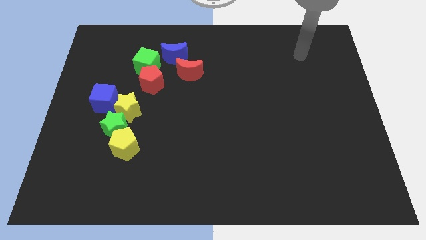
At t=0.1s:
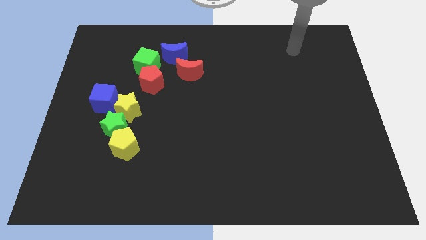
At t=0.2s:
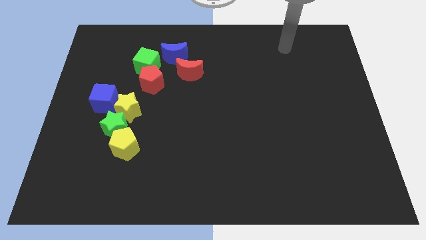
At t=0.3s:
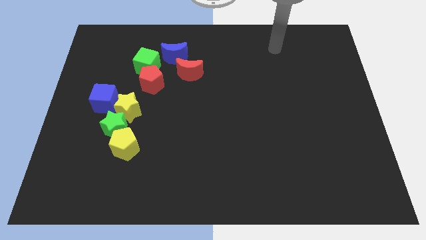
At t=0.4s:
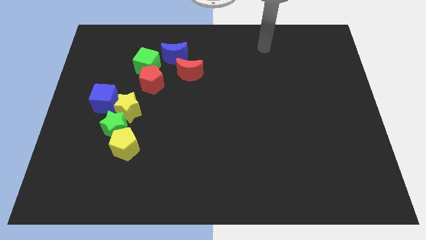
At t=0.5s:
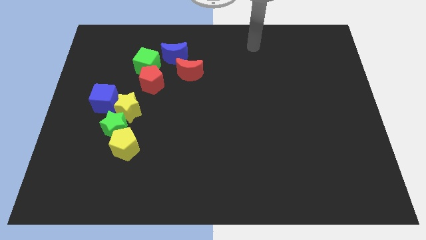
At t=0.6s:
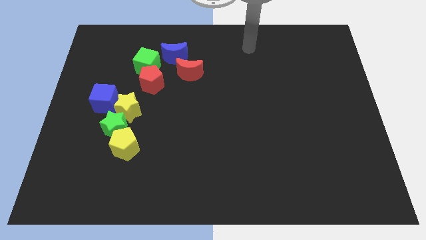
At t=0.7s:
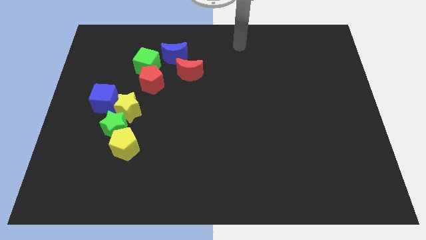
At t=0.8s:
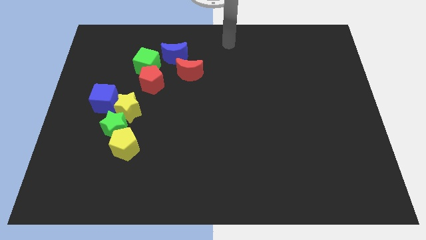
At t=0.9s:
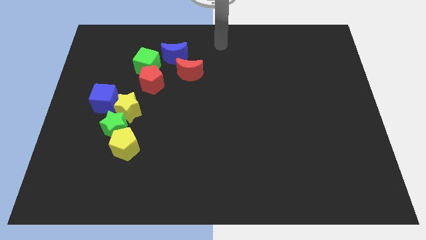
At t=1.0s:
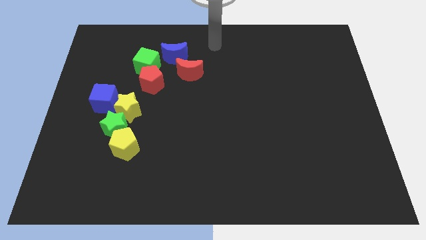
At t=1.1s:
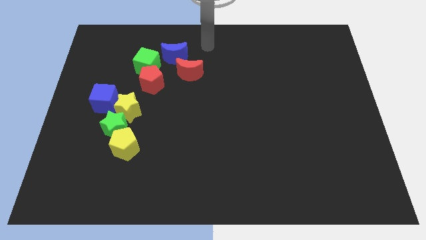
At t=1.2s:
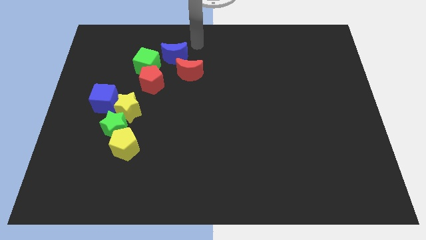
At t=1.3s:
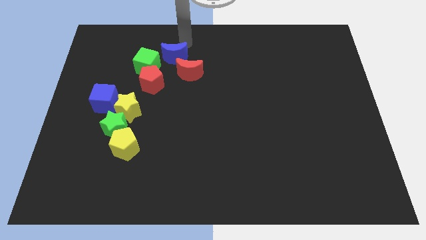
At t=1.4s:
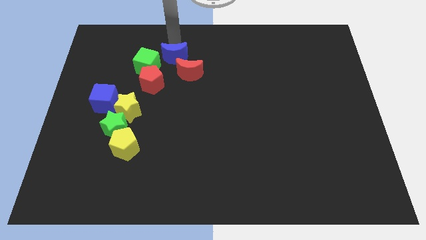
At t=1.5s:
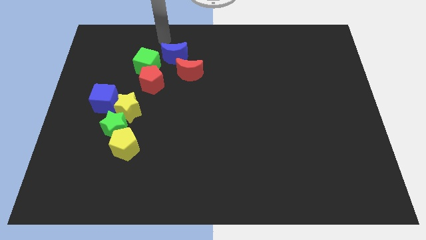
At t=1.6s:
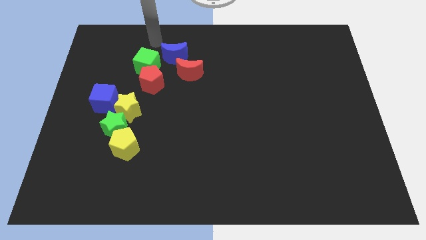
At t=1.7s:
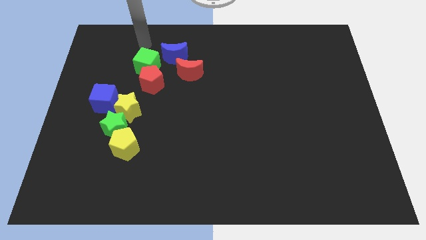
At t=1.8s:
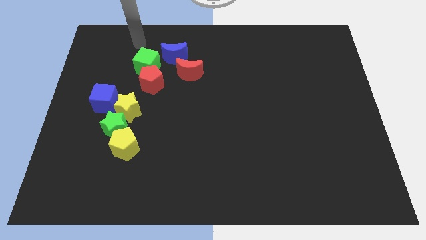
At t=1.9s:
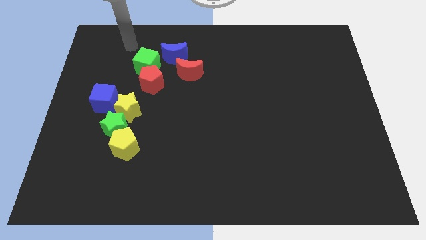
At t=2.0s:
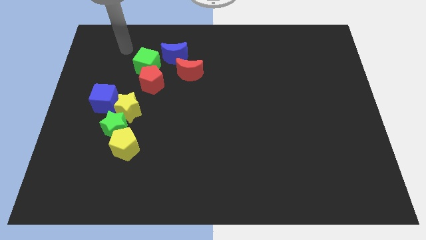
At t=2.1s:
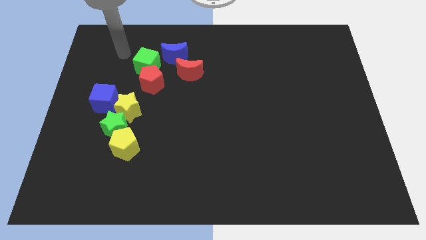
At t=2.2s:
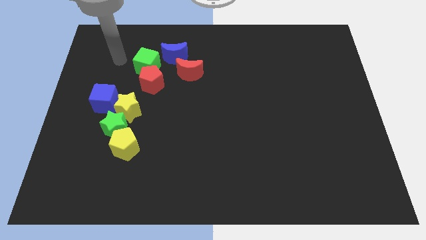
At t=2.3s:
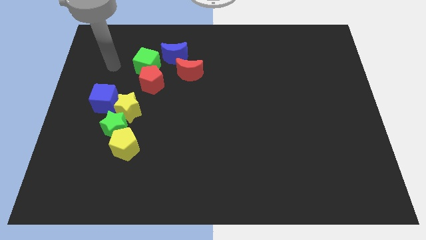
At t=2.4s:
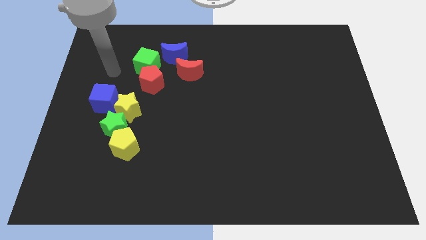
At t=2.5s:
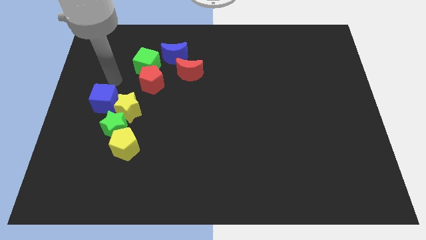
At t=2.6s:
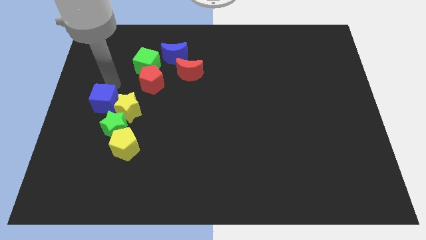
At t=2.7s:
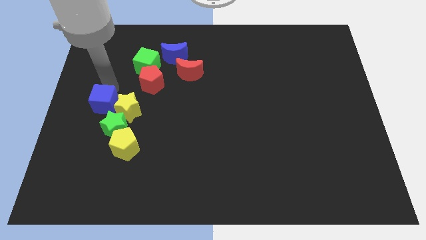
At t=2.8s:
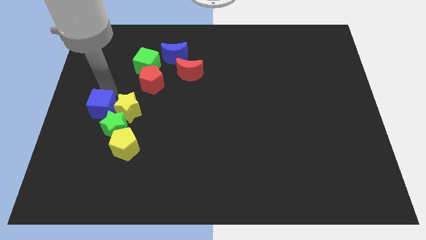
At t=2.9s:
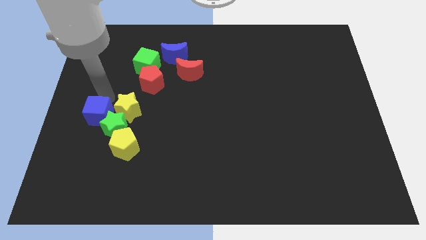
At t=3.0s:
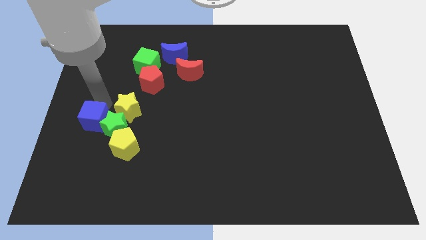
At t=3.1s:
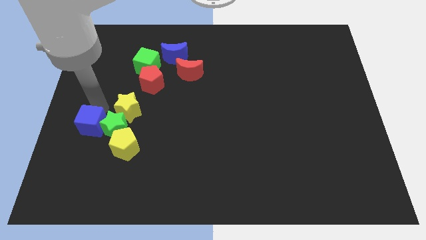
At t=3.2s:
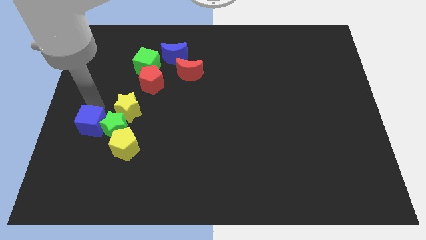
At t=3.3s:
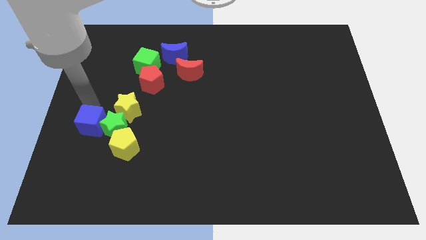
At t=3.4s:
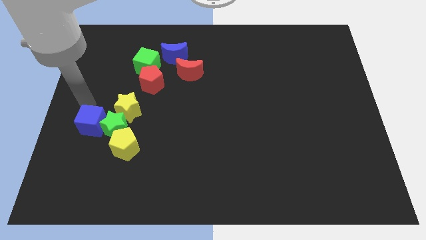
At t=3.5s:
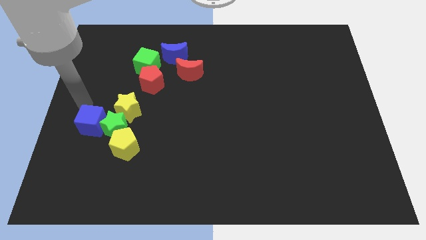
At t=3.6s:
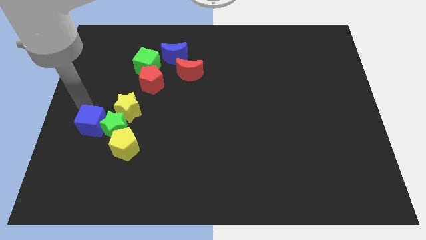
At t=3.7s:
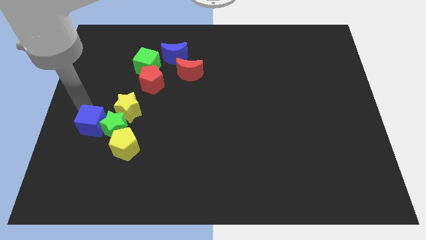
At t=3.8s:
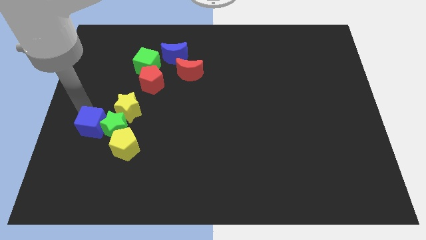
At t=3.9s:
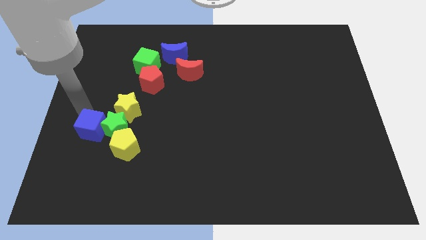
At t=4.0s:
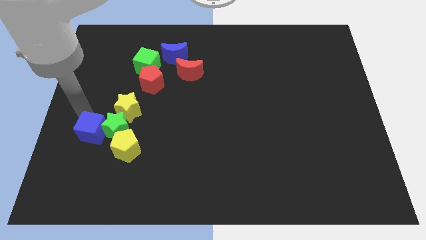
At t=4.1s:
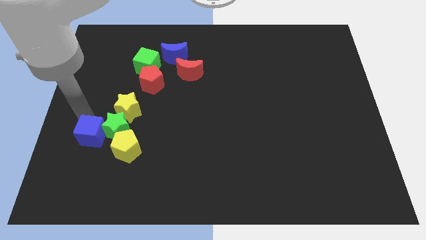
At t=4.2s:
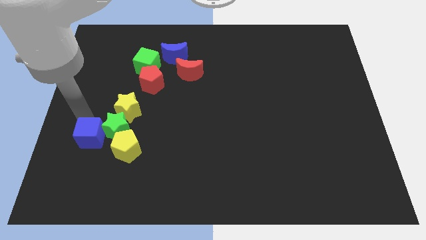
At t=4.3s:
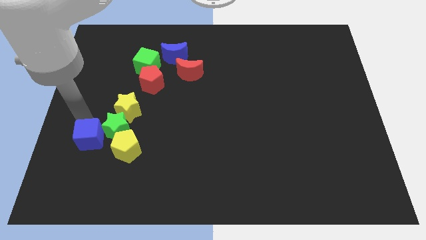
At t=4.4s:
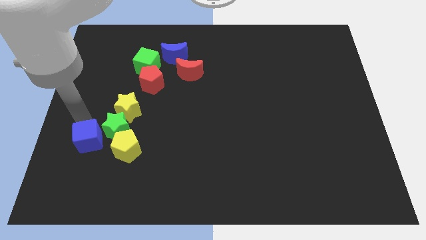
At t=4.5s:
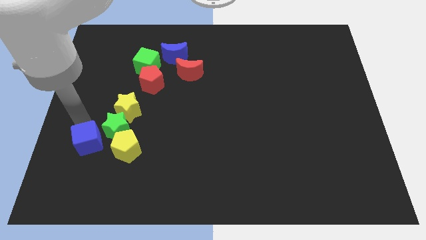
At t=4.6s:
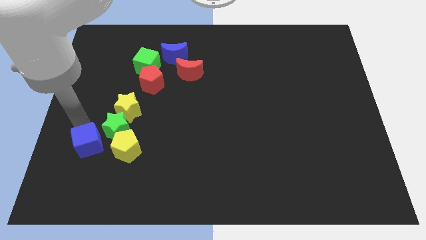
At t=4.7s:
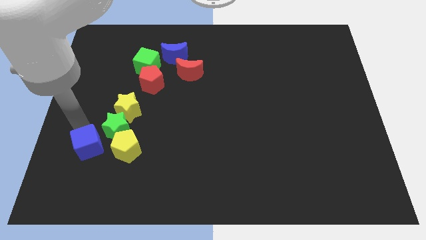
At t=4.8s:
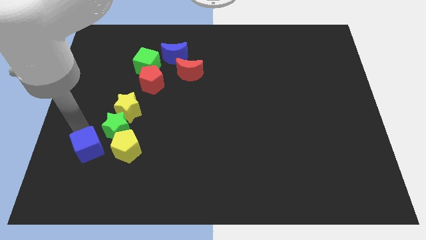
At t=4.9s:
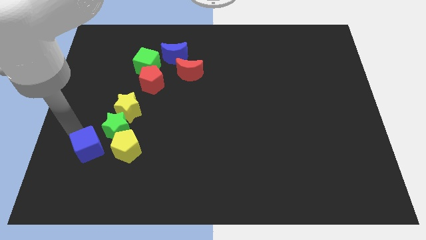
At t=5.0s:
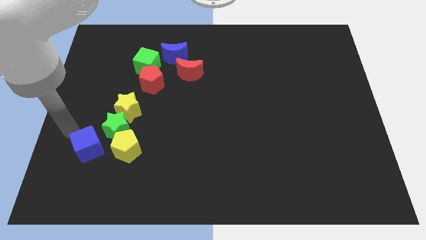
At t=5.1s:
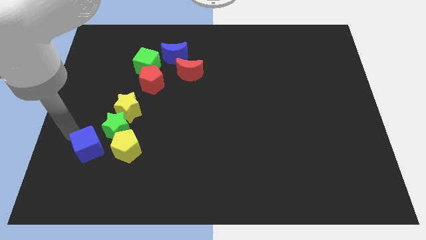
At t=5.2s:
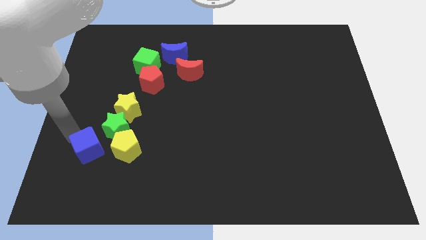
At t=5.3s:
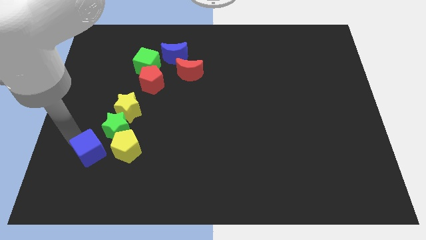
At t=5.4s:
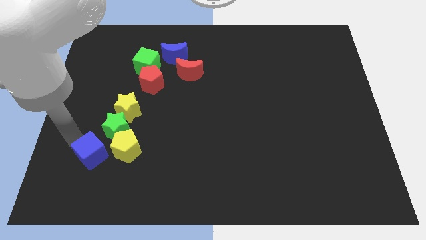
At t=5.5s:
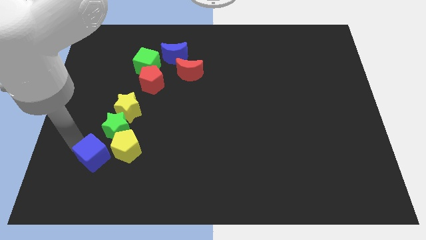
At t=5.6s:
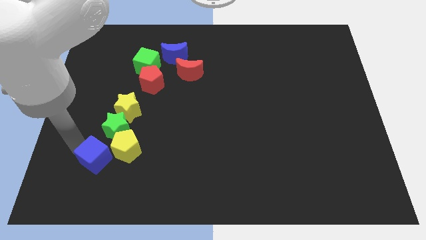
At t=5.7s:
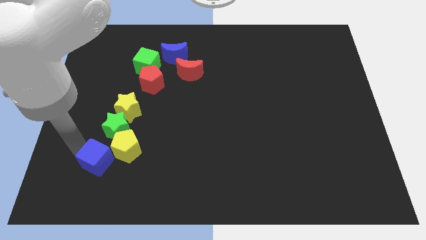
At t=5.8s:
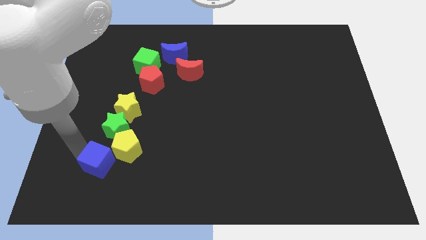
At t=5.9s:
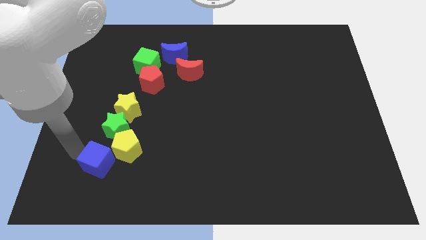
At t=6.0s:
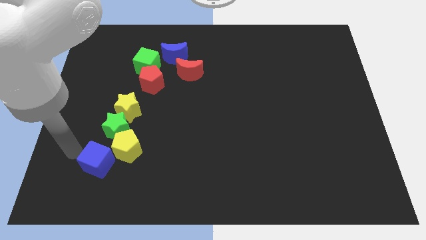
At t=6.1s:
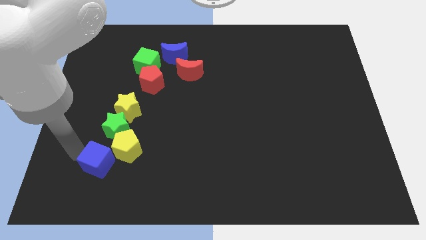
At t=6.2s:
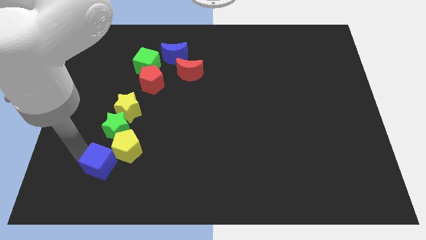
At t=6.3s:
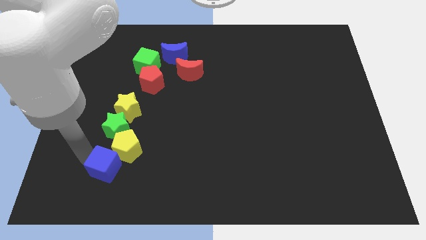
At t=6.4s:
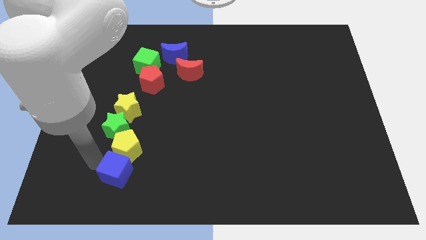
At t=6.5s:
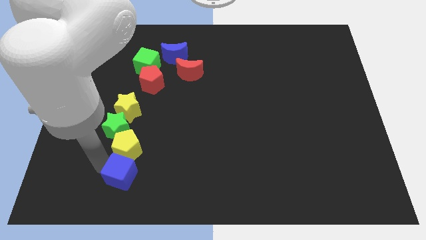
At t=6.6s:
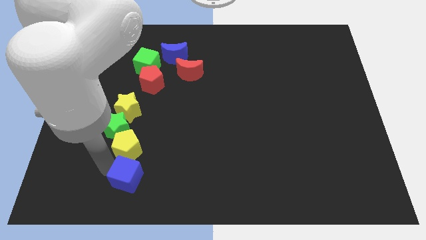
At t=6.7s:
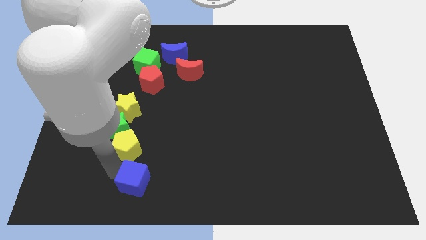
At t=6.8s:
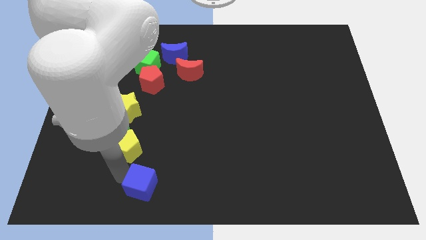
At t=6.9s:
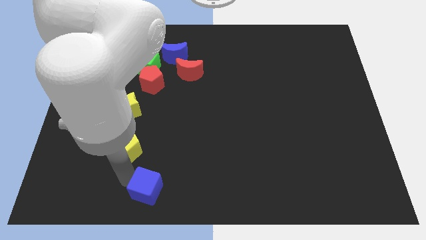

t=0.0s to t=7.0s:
move the blue cube to the bottom
